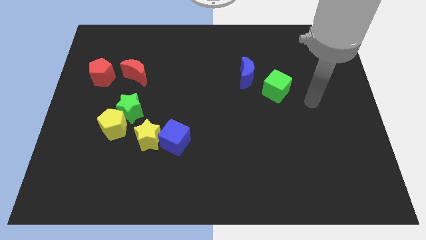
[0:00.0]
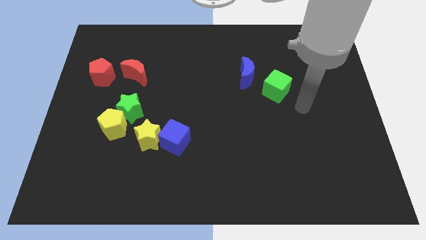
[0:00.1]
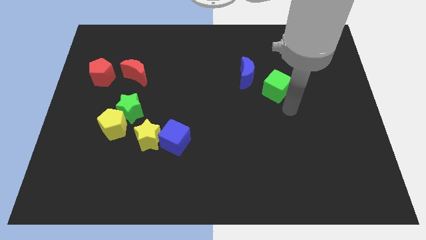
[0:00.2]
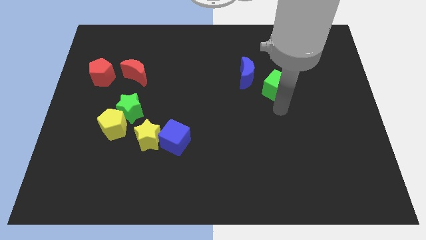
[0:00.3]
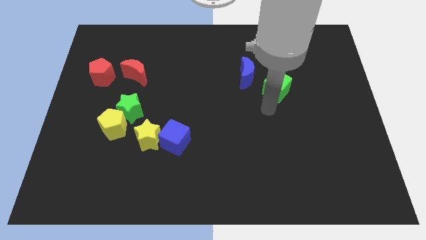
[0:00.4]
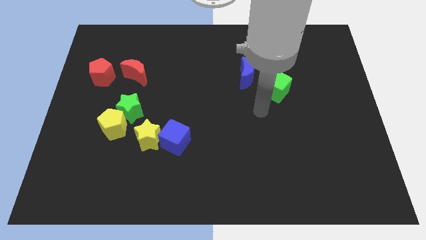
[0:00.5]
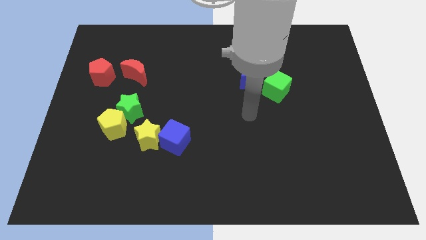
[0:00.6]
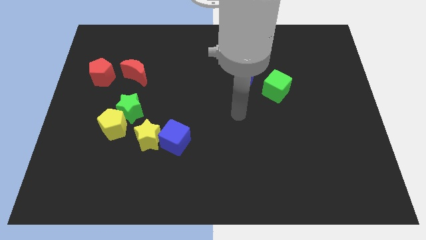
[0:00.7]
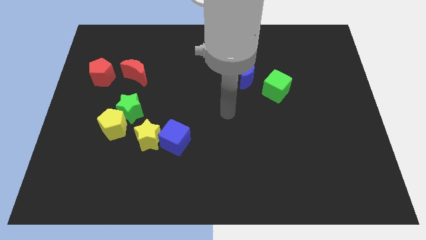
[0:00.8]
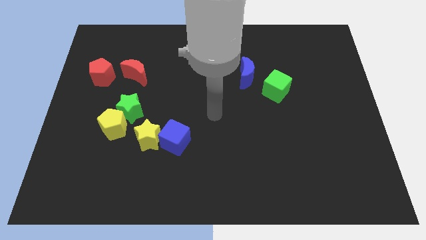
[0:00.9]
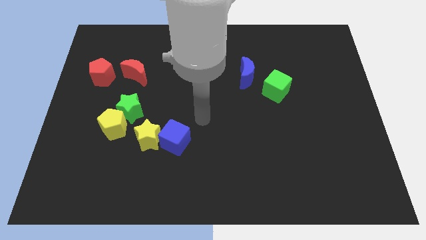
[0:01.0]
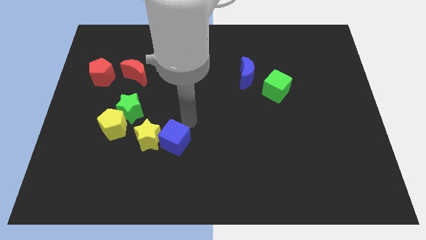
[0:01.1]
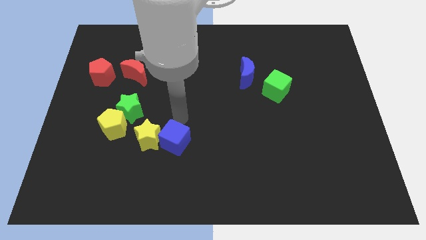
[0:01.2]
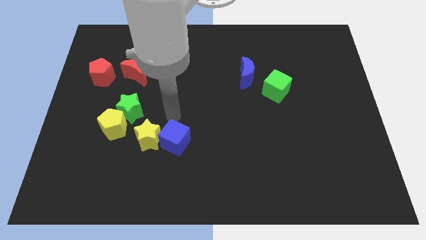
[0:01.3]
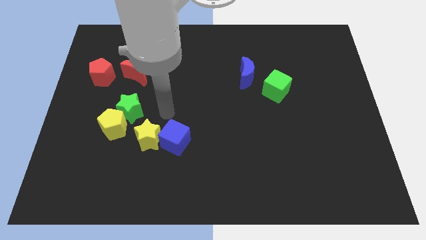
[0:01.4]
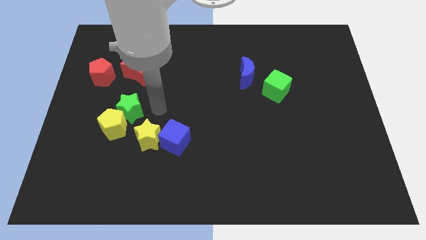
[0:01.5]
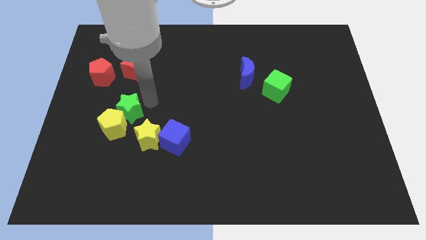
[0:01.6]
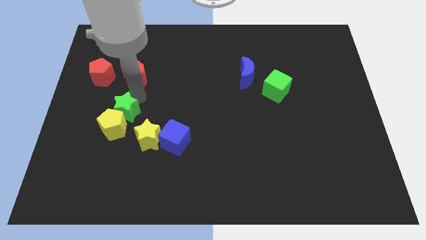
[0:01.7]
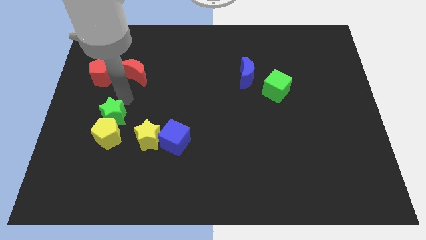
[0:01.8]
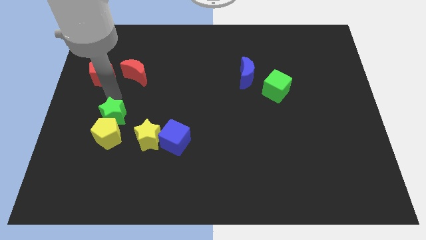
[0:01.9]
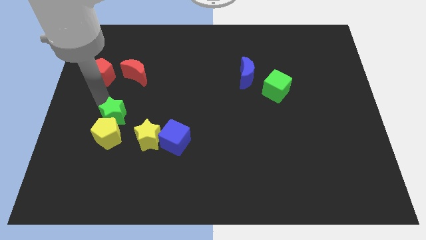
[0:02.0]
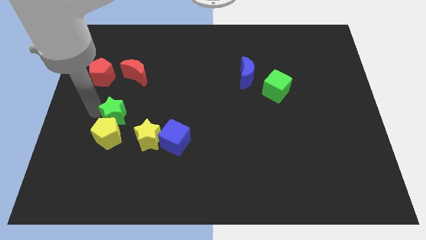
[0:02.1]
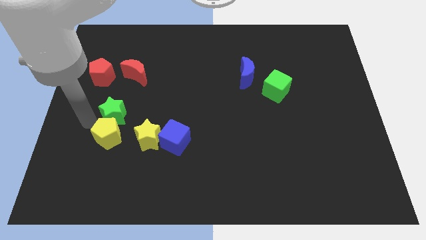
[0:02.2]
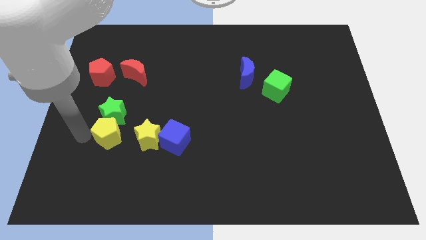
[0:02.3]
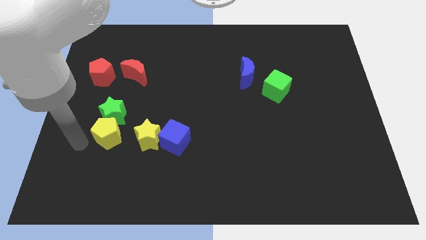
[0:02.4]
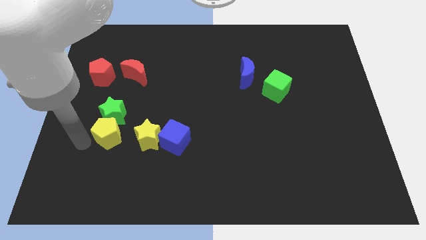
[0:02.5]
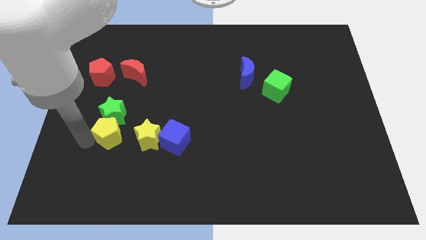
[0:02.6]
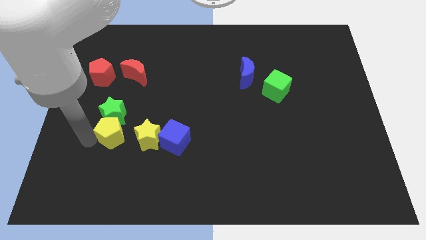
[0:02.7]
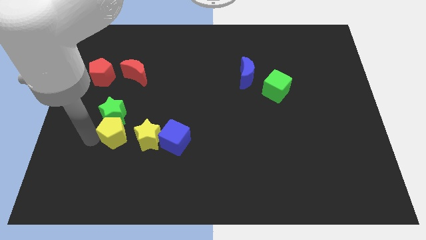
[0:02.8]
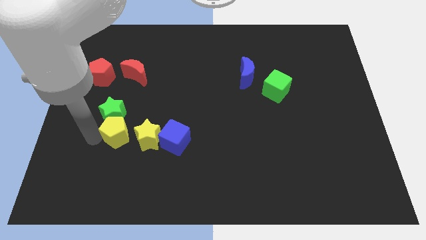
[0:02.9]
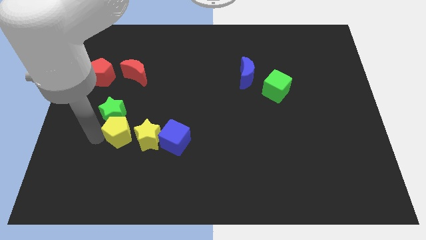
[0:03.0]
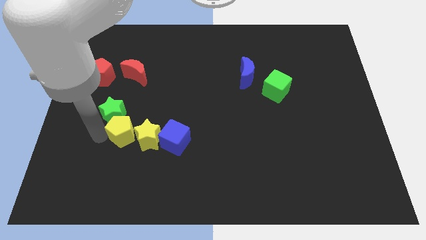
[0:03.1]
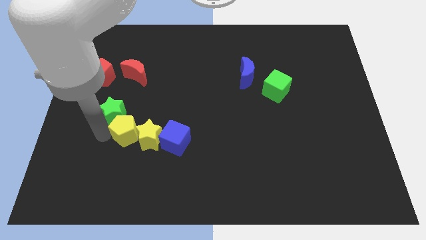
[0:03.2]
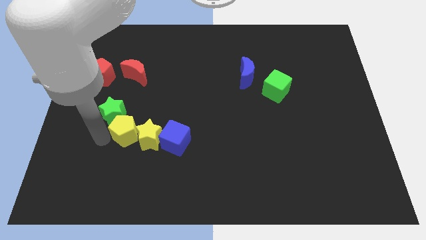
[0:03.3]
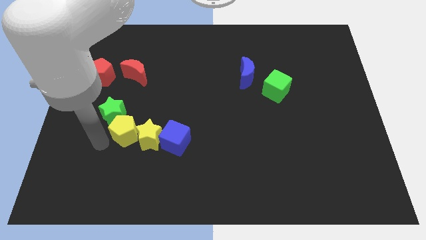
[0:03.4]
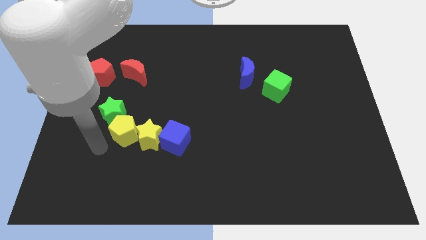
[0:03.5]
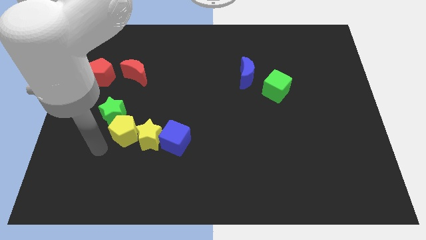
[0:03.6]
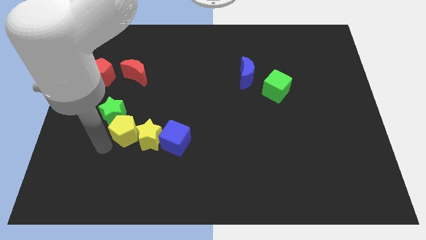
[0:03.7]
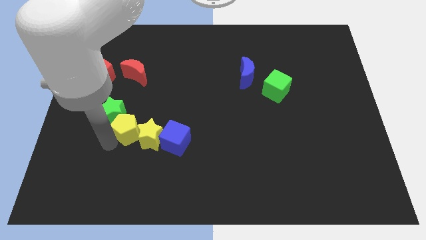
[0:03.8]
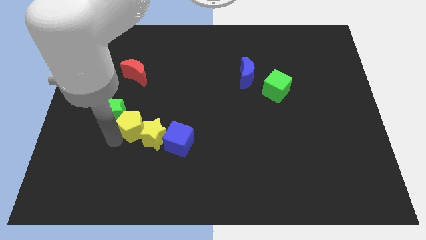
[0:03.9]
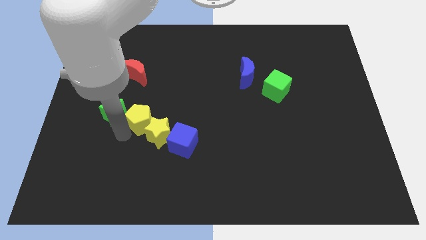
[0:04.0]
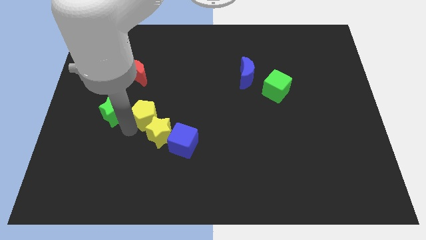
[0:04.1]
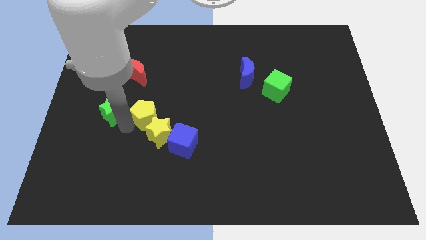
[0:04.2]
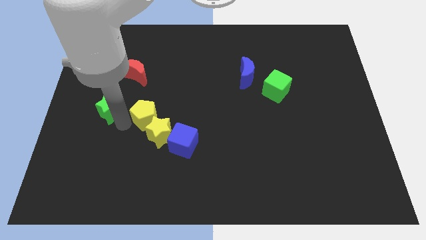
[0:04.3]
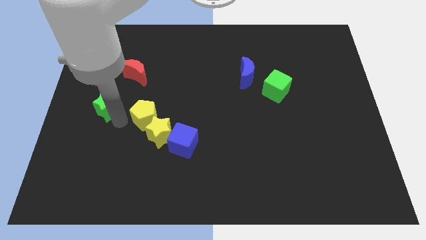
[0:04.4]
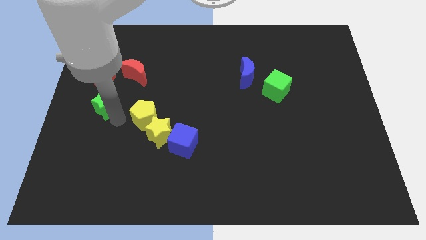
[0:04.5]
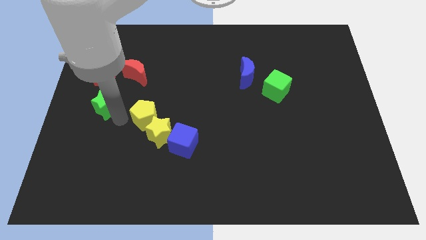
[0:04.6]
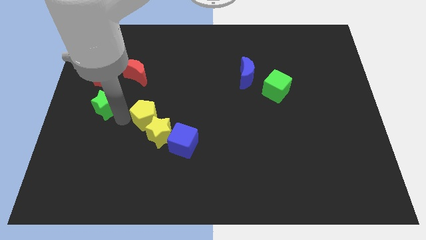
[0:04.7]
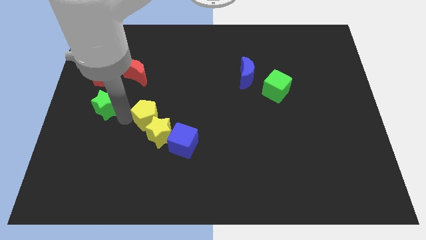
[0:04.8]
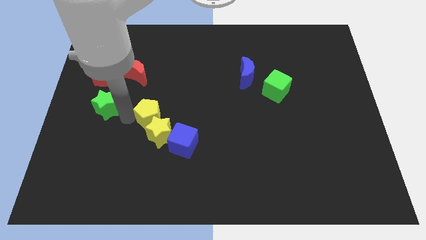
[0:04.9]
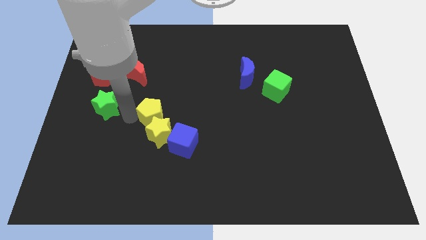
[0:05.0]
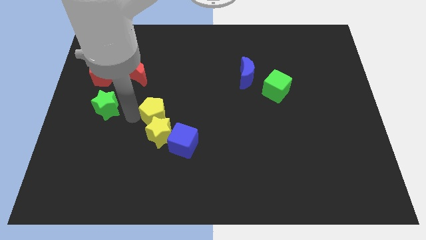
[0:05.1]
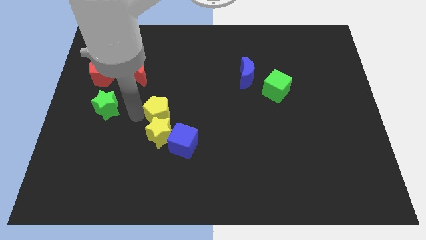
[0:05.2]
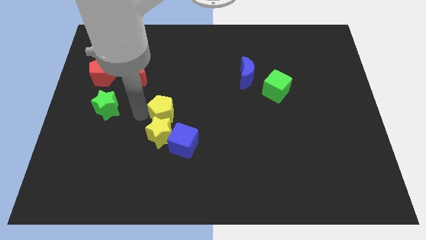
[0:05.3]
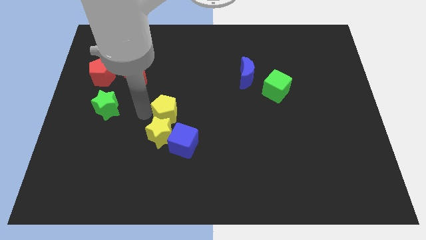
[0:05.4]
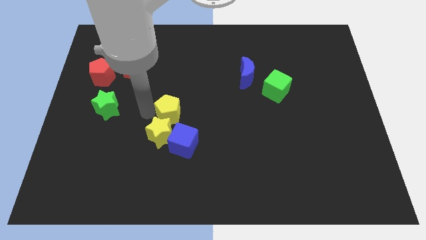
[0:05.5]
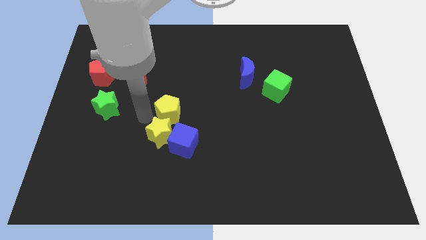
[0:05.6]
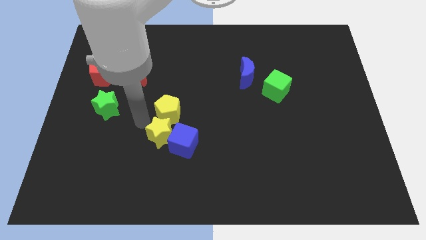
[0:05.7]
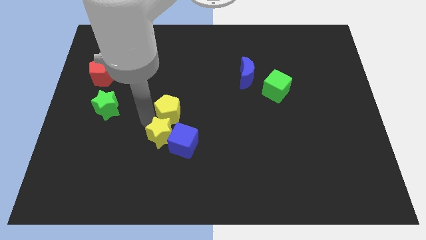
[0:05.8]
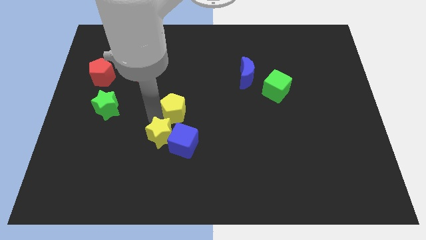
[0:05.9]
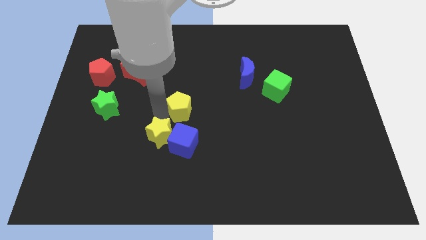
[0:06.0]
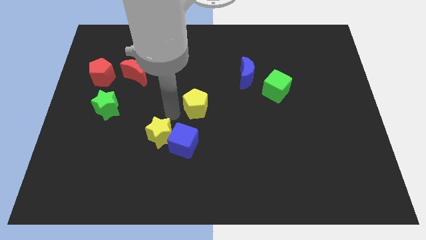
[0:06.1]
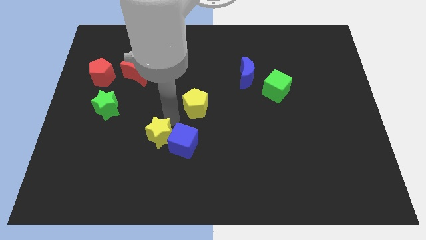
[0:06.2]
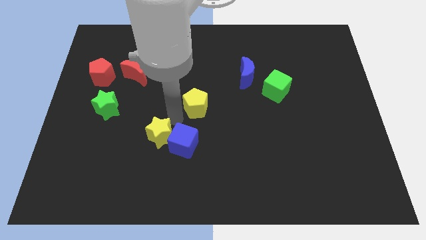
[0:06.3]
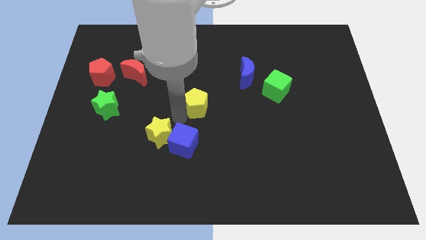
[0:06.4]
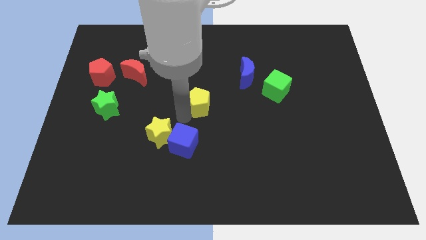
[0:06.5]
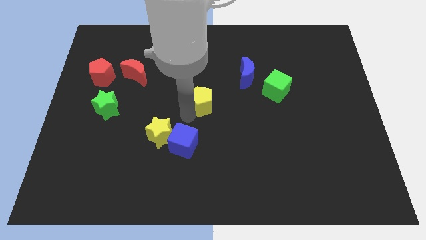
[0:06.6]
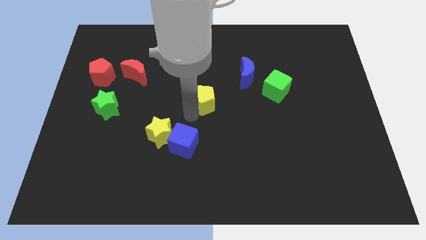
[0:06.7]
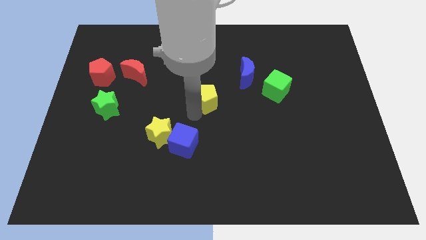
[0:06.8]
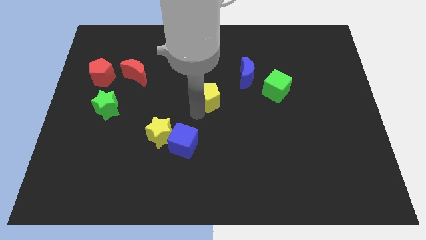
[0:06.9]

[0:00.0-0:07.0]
push the yellow pentagon to the bottom left of the blue moon
